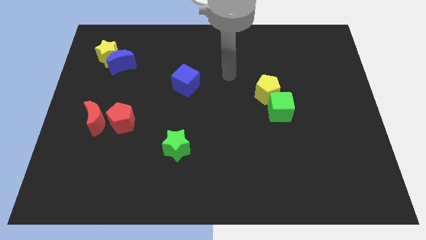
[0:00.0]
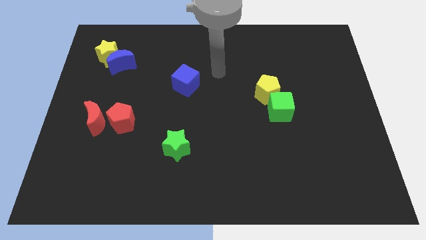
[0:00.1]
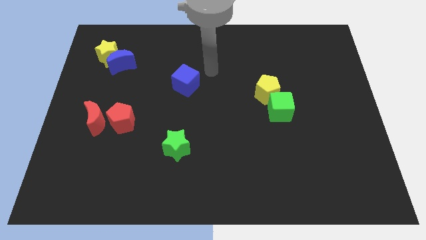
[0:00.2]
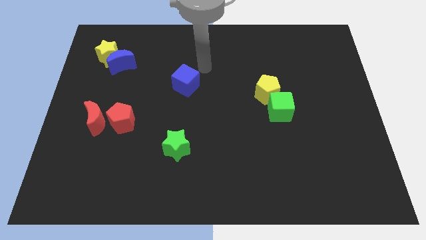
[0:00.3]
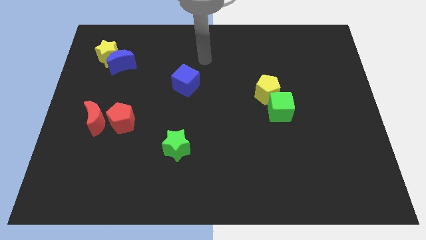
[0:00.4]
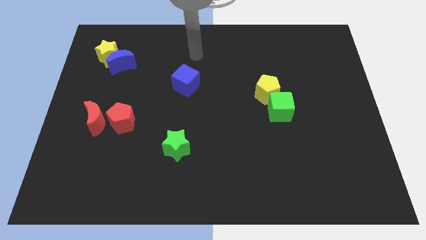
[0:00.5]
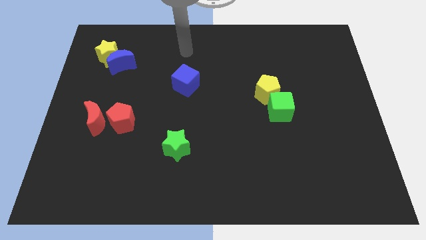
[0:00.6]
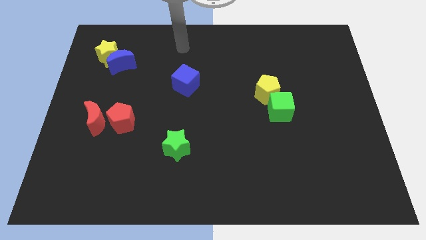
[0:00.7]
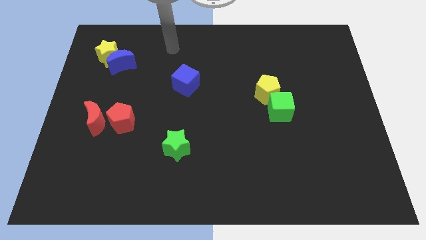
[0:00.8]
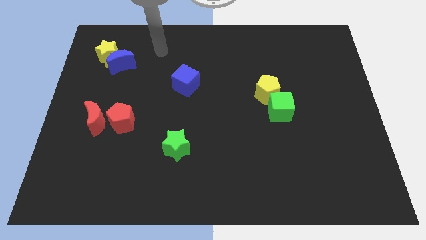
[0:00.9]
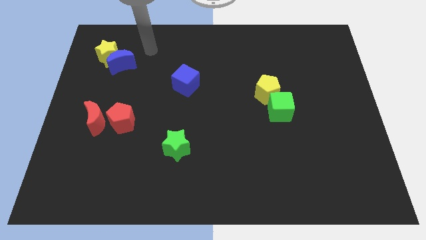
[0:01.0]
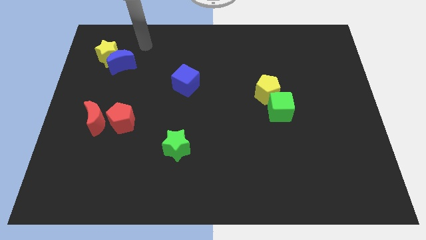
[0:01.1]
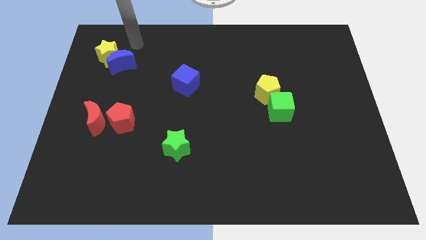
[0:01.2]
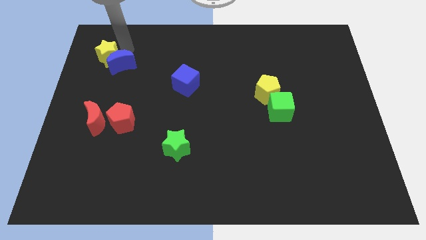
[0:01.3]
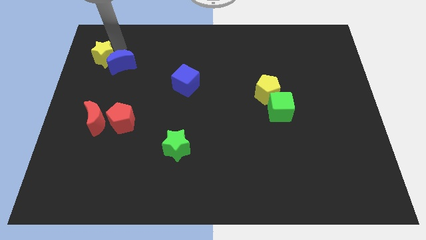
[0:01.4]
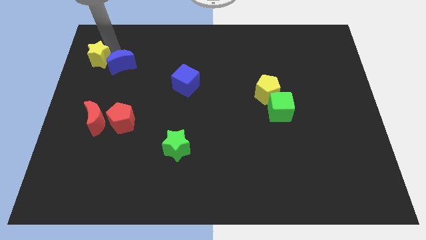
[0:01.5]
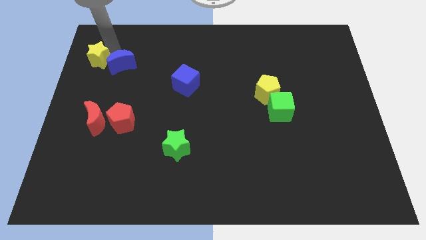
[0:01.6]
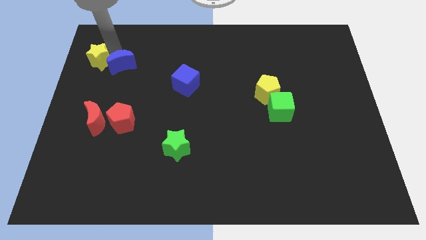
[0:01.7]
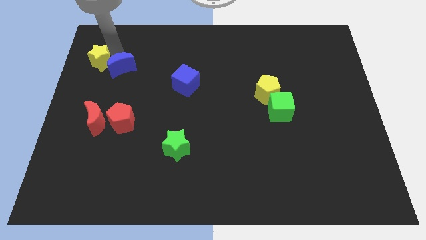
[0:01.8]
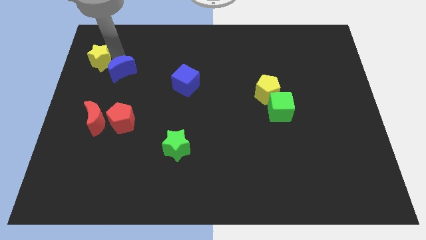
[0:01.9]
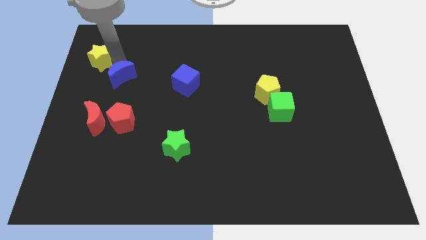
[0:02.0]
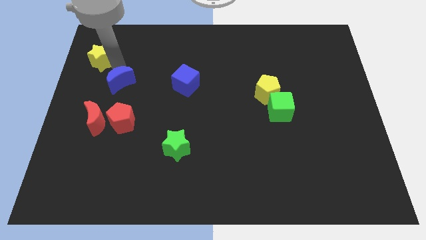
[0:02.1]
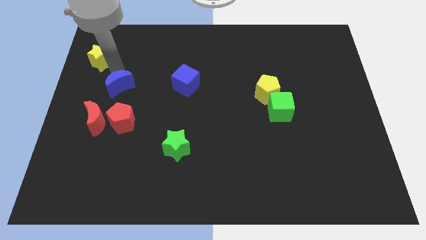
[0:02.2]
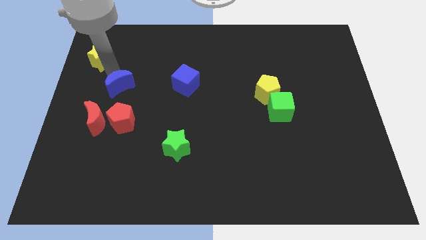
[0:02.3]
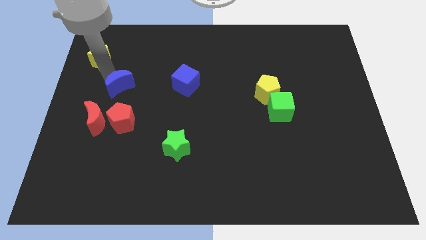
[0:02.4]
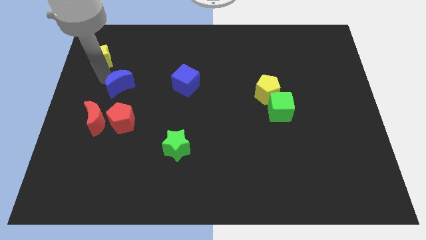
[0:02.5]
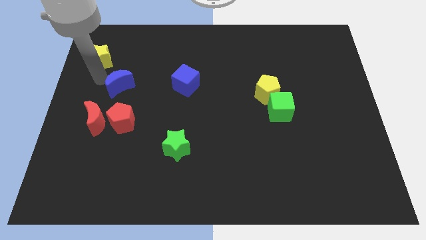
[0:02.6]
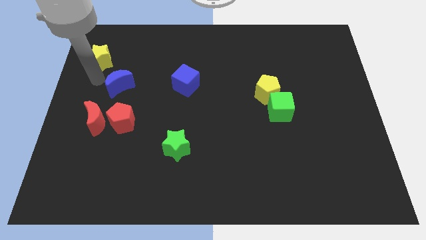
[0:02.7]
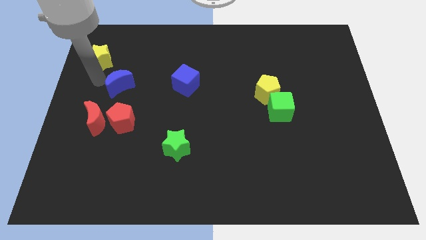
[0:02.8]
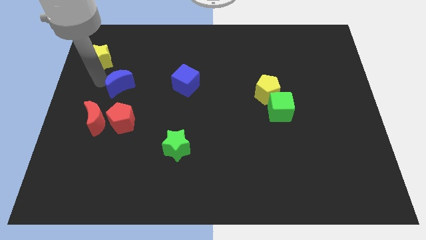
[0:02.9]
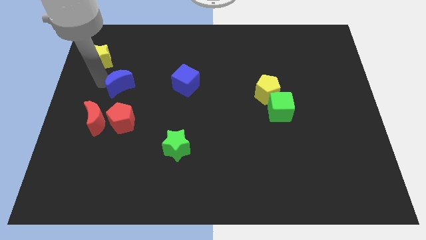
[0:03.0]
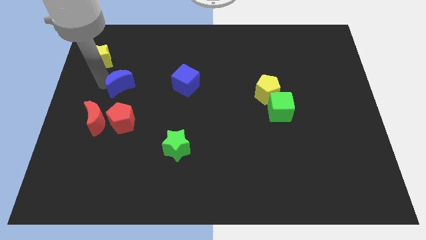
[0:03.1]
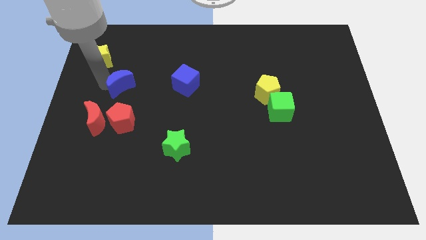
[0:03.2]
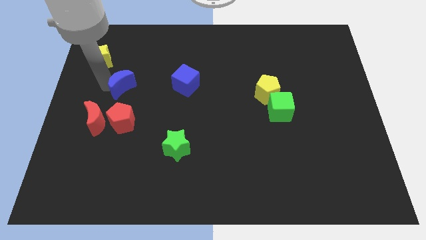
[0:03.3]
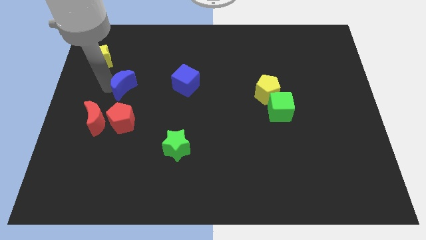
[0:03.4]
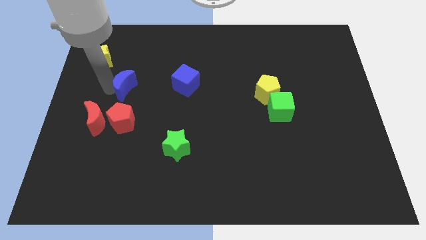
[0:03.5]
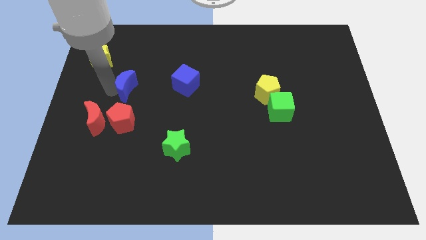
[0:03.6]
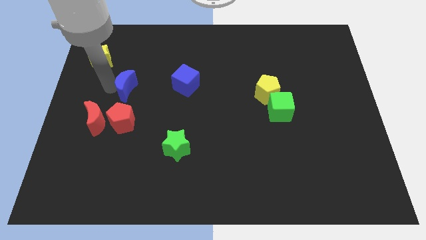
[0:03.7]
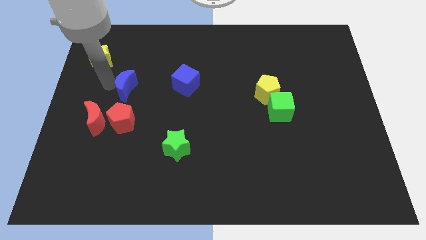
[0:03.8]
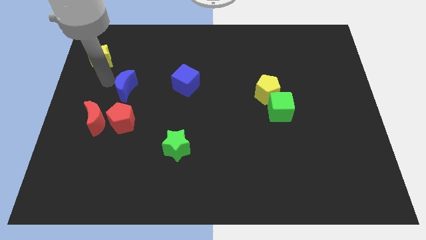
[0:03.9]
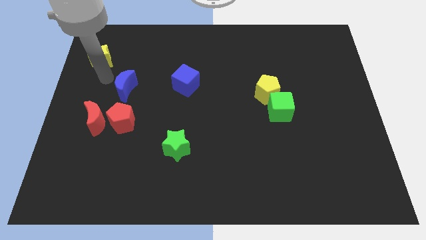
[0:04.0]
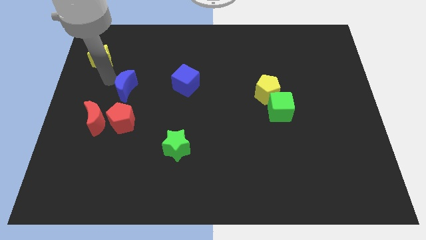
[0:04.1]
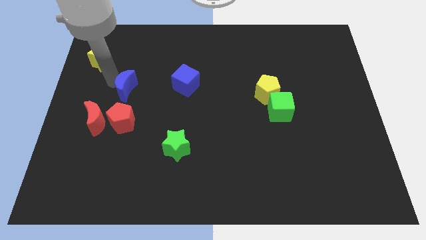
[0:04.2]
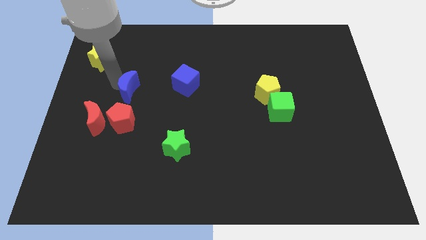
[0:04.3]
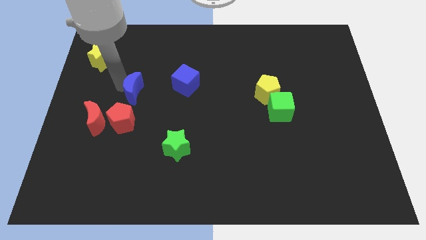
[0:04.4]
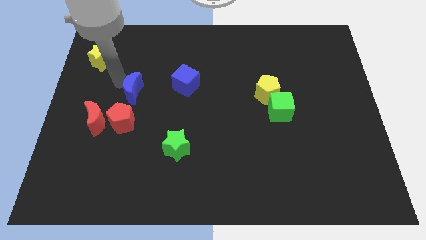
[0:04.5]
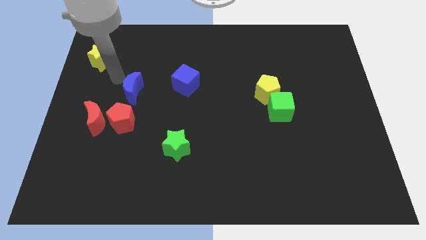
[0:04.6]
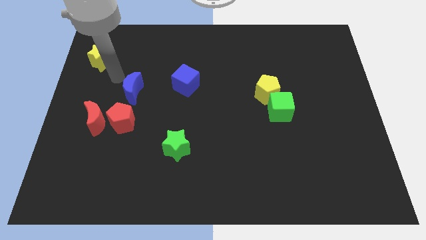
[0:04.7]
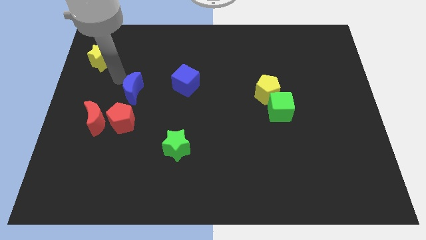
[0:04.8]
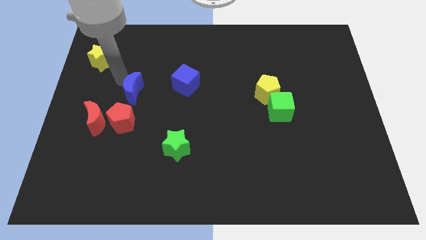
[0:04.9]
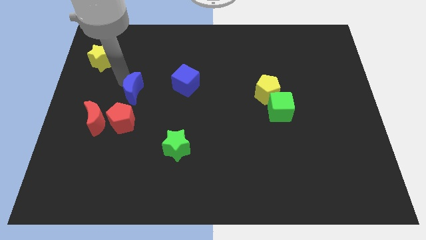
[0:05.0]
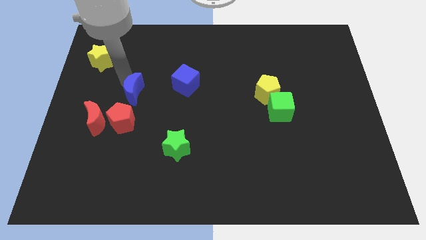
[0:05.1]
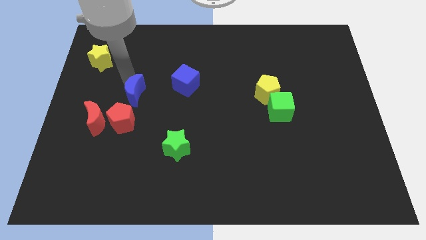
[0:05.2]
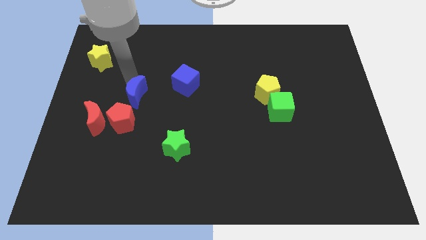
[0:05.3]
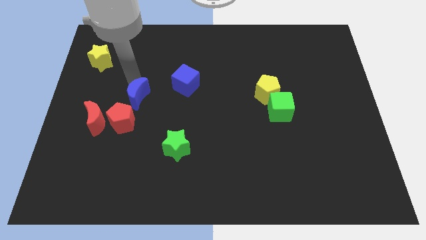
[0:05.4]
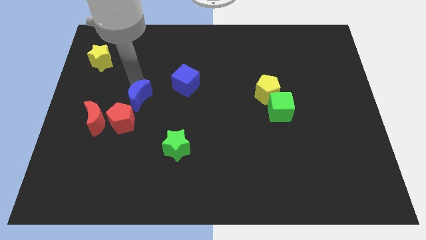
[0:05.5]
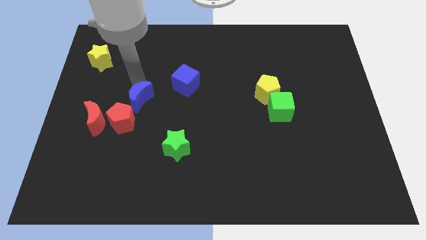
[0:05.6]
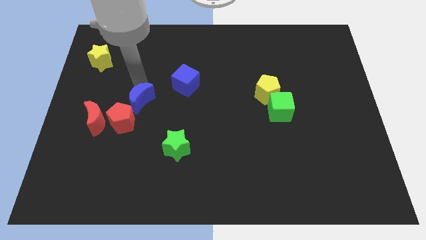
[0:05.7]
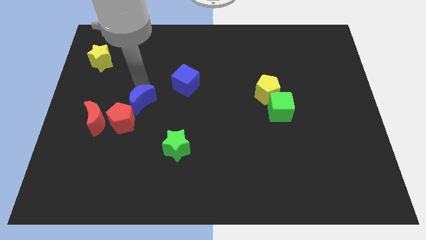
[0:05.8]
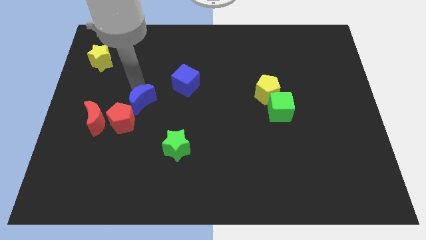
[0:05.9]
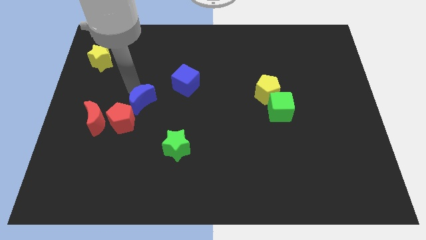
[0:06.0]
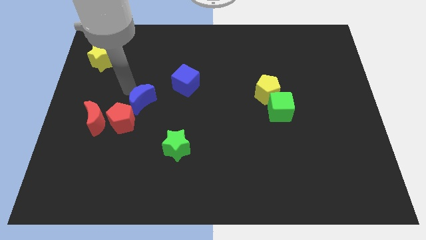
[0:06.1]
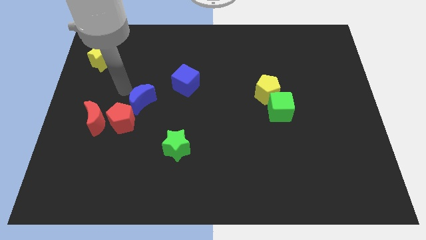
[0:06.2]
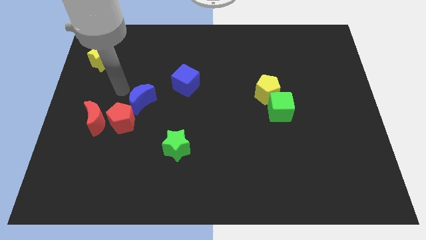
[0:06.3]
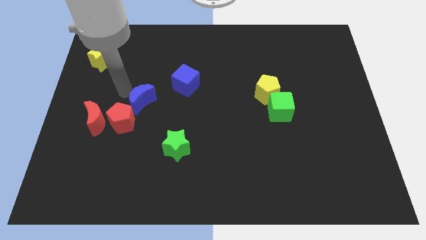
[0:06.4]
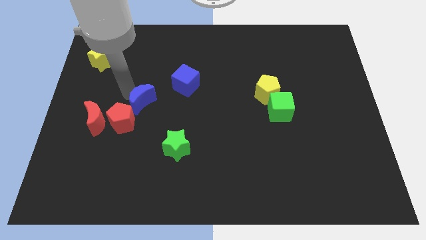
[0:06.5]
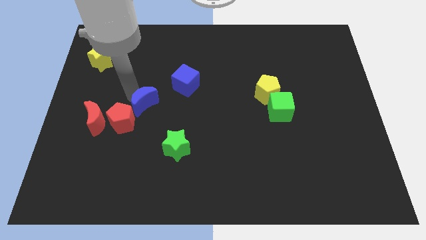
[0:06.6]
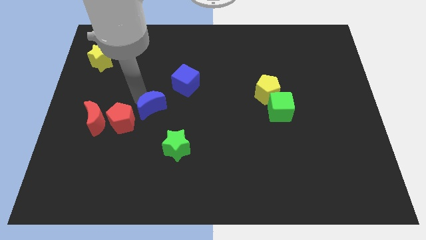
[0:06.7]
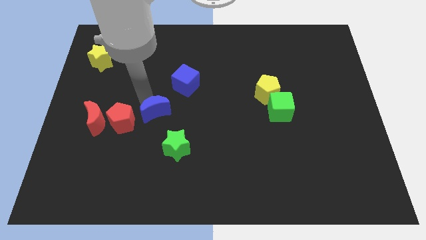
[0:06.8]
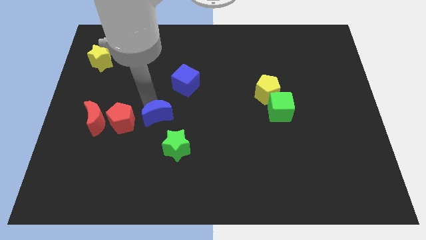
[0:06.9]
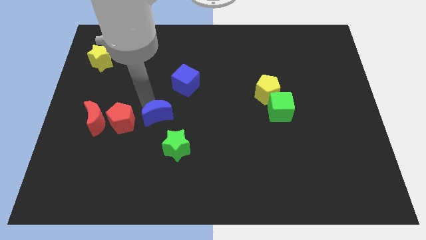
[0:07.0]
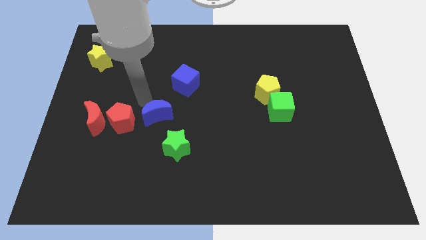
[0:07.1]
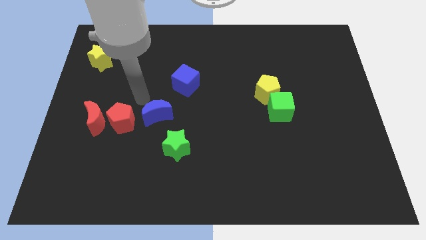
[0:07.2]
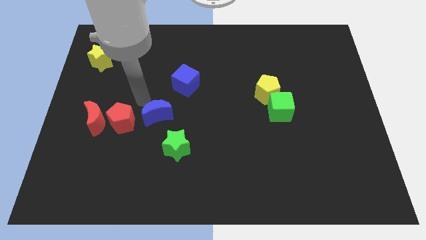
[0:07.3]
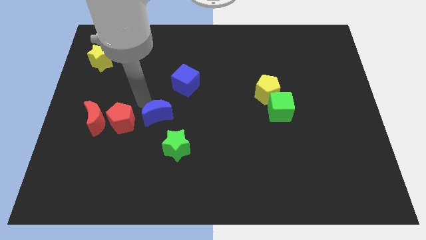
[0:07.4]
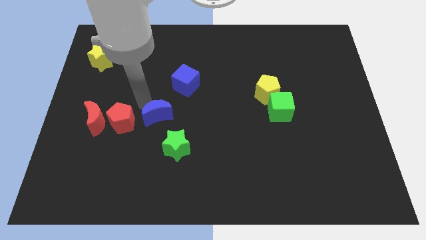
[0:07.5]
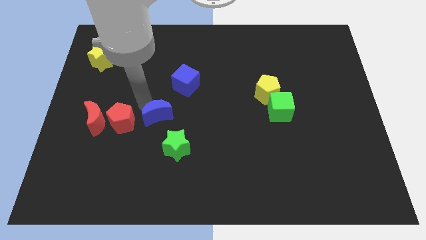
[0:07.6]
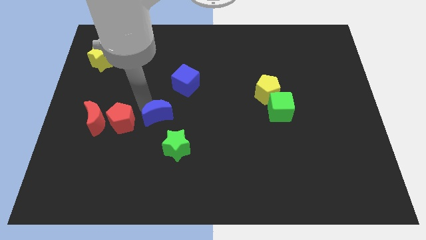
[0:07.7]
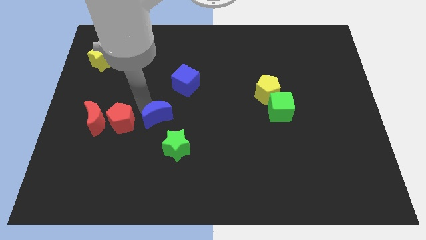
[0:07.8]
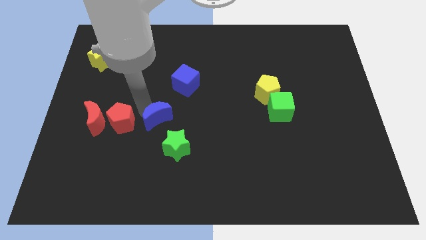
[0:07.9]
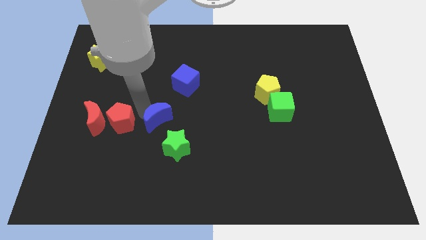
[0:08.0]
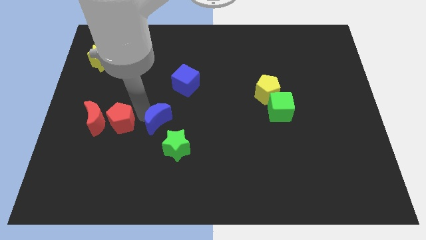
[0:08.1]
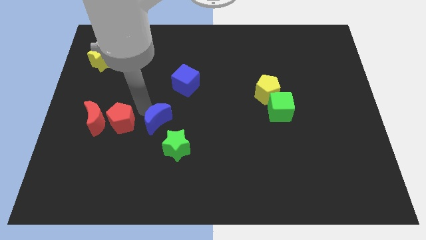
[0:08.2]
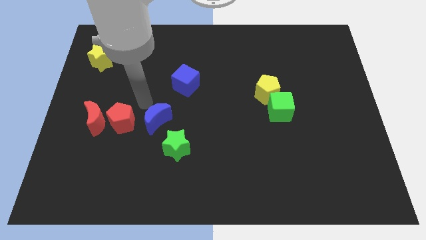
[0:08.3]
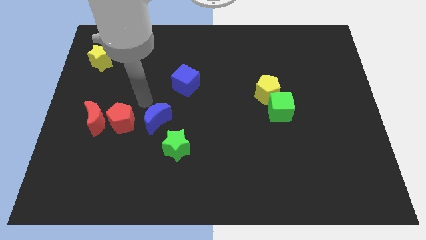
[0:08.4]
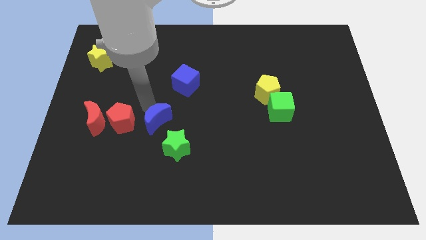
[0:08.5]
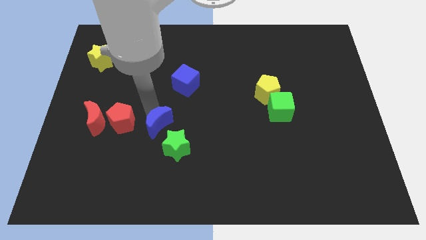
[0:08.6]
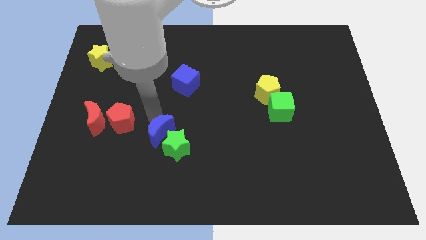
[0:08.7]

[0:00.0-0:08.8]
push the blue moon next to the green star

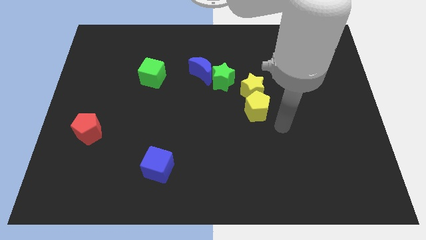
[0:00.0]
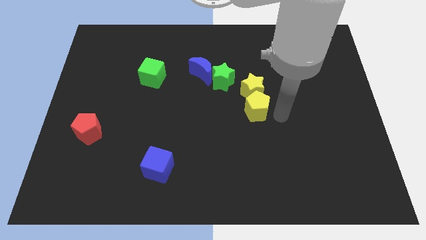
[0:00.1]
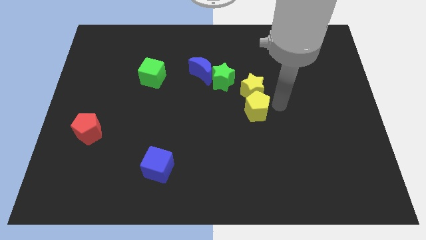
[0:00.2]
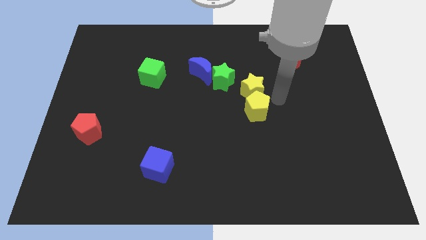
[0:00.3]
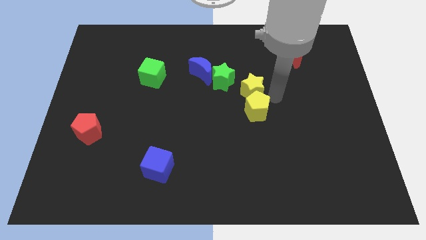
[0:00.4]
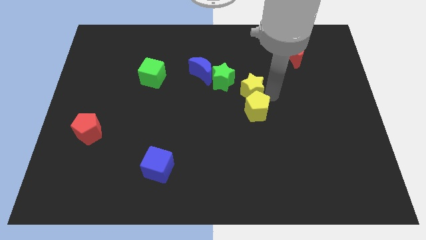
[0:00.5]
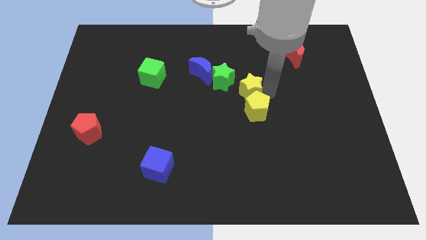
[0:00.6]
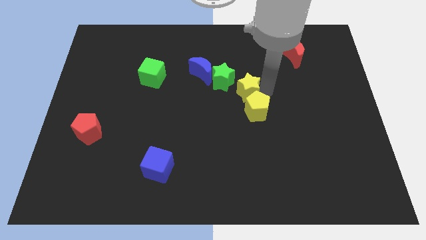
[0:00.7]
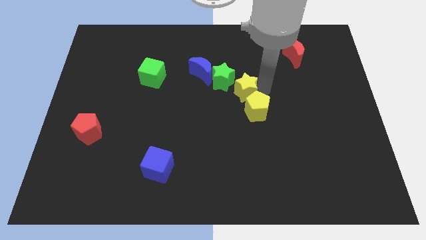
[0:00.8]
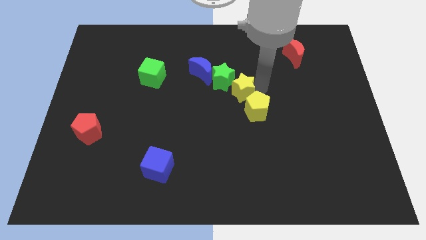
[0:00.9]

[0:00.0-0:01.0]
push the yellow star close to the green star
